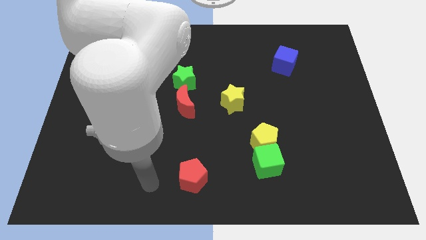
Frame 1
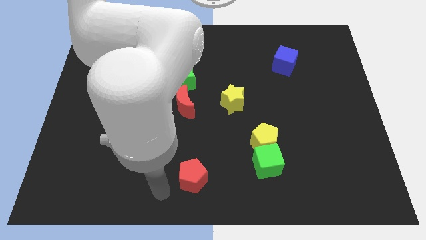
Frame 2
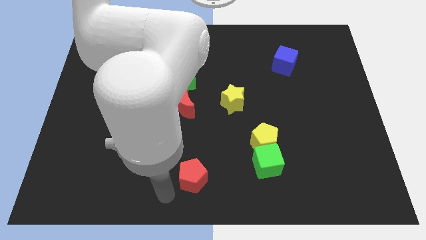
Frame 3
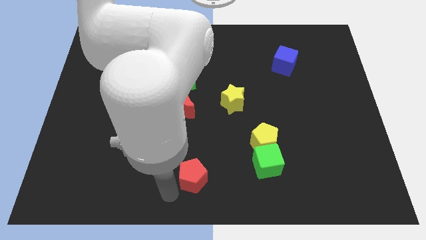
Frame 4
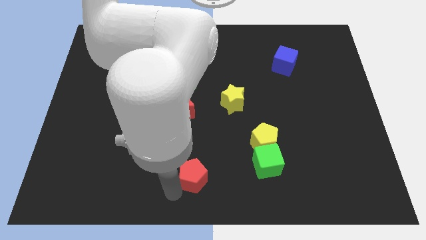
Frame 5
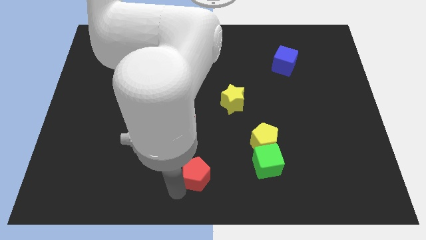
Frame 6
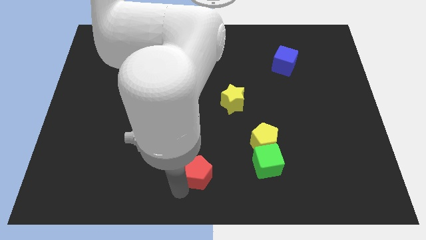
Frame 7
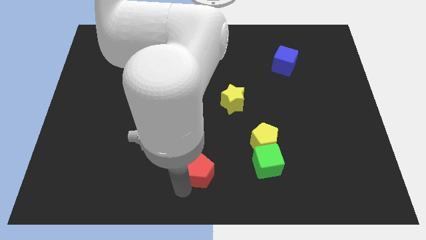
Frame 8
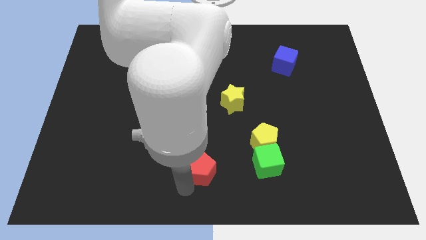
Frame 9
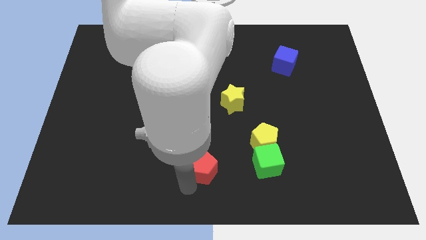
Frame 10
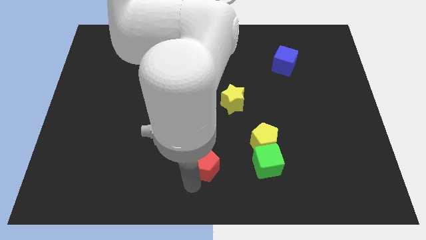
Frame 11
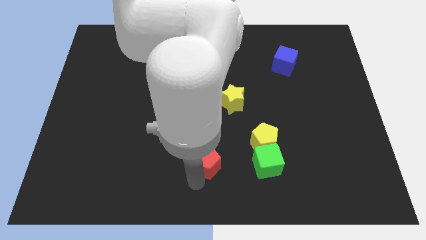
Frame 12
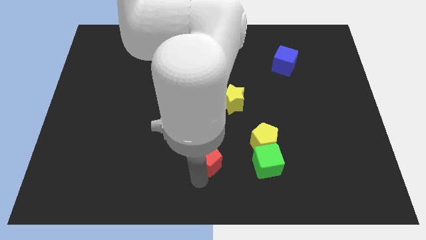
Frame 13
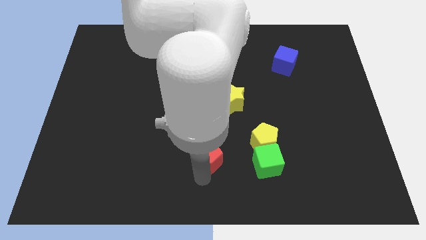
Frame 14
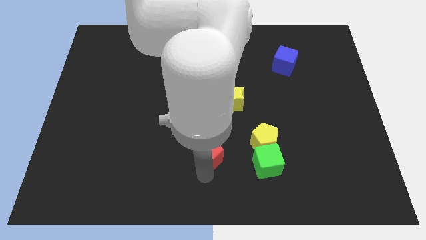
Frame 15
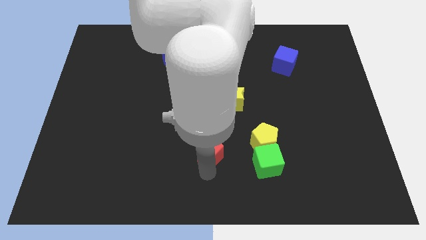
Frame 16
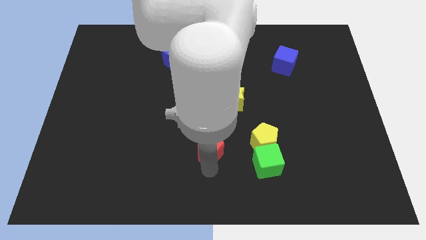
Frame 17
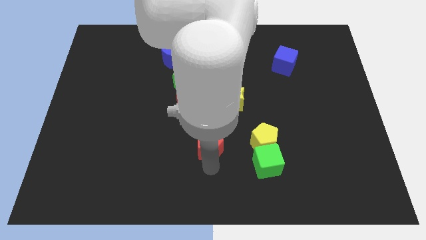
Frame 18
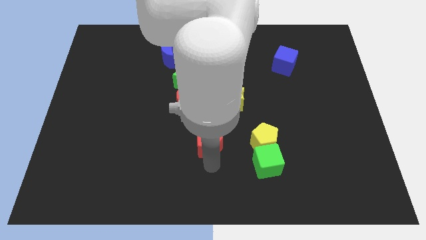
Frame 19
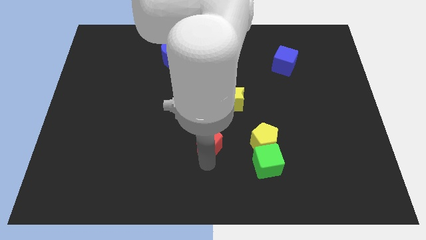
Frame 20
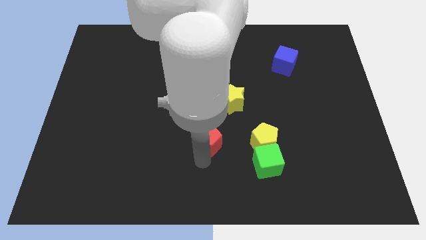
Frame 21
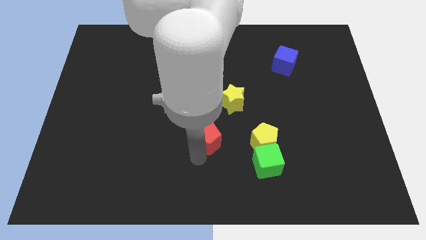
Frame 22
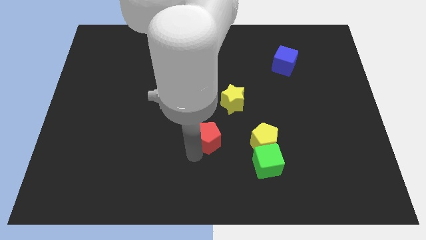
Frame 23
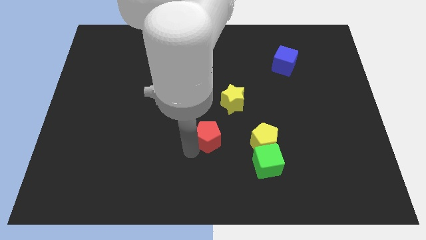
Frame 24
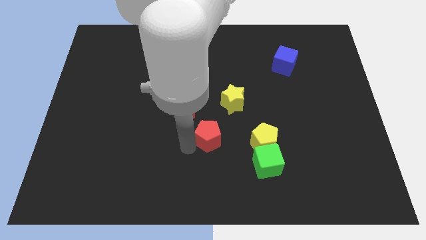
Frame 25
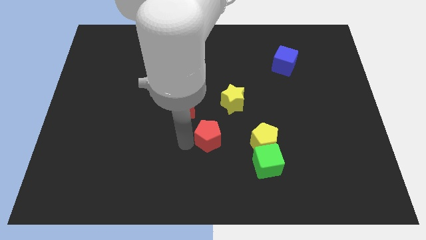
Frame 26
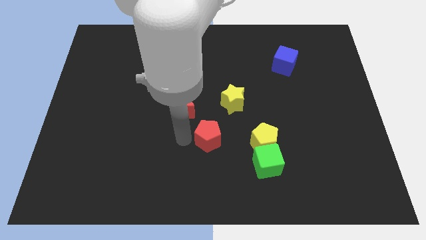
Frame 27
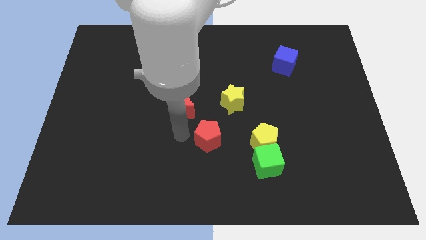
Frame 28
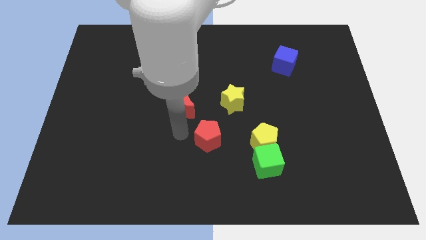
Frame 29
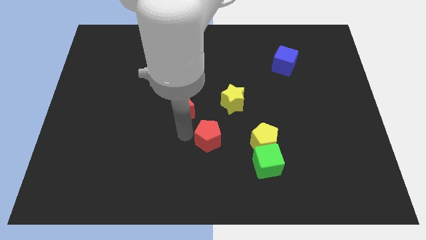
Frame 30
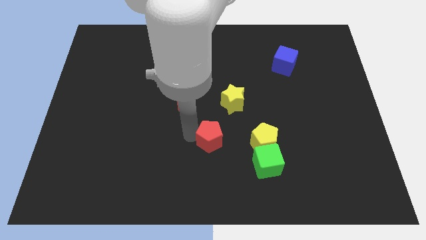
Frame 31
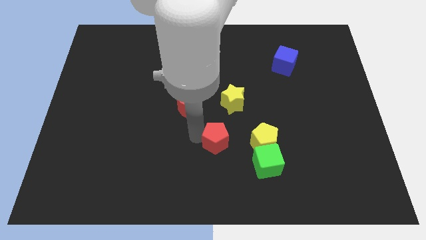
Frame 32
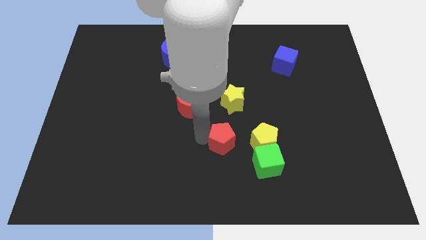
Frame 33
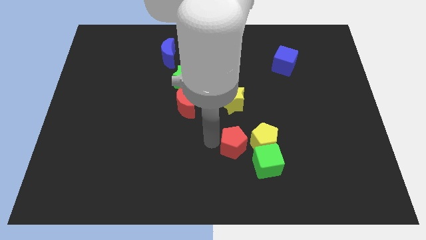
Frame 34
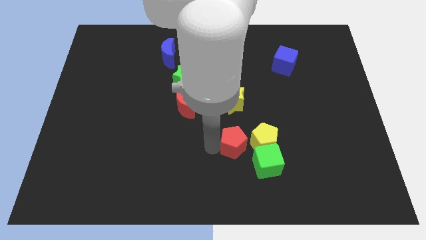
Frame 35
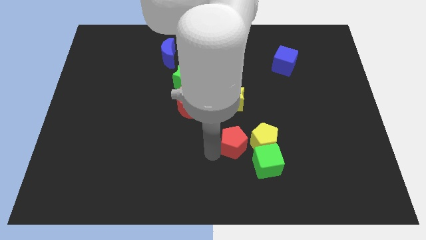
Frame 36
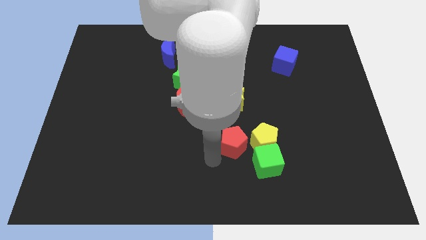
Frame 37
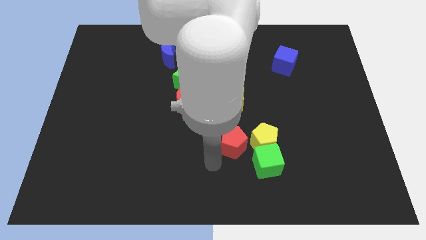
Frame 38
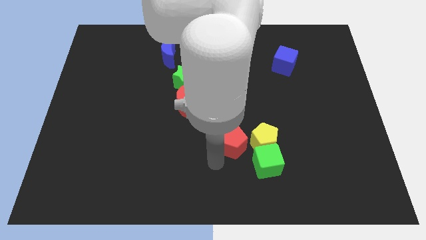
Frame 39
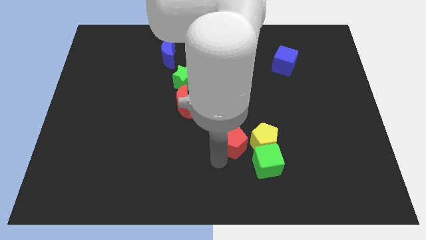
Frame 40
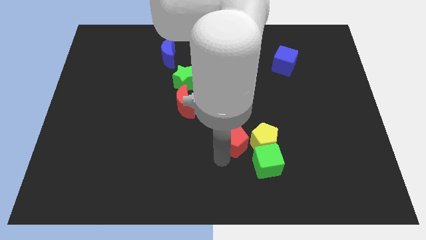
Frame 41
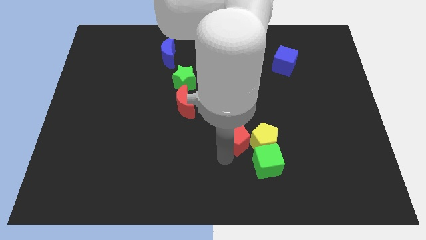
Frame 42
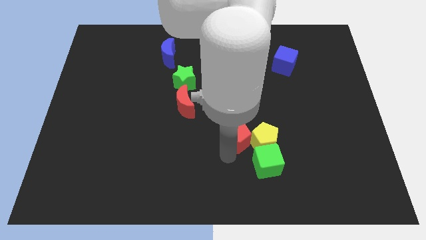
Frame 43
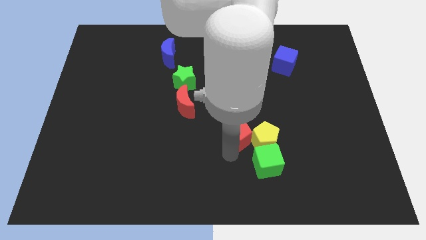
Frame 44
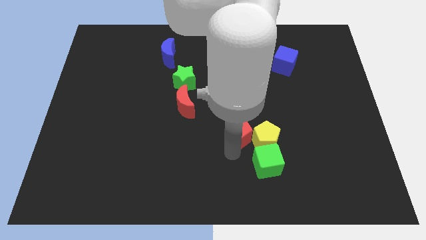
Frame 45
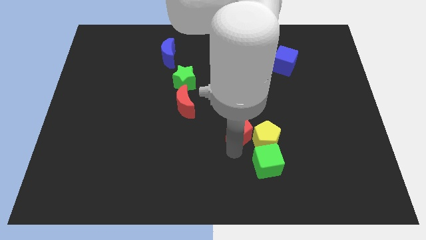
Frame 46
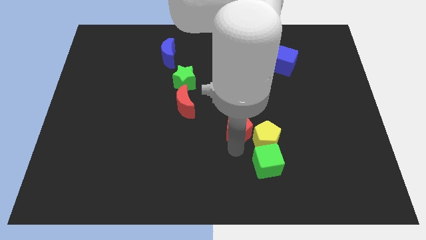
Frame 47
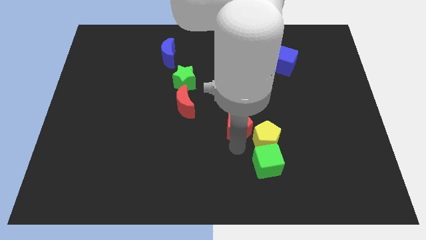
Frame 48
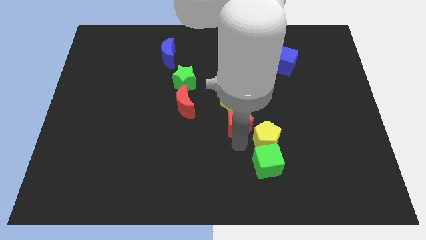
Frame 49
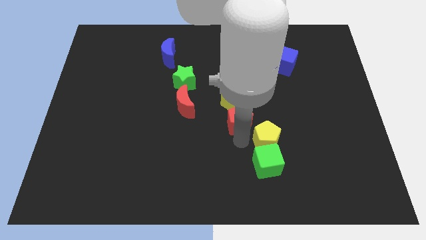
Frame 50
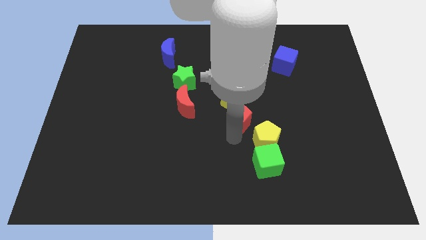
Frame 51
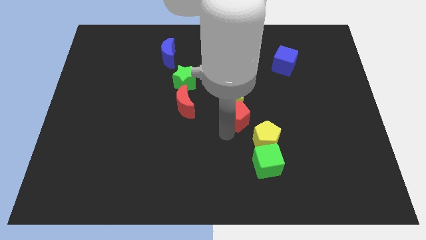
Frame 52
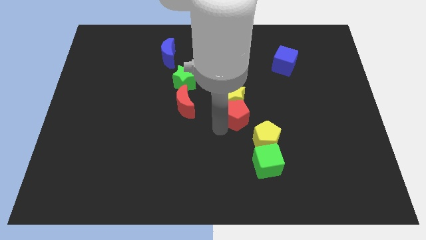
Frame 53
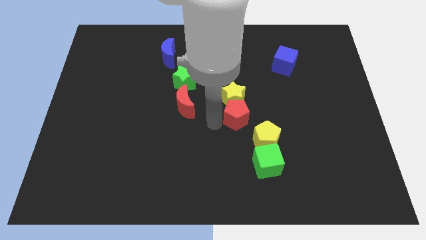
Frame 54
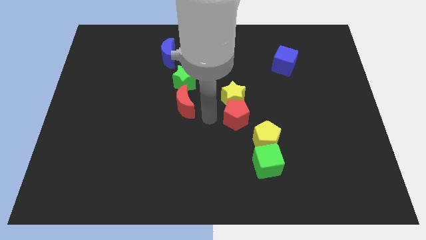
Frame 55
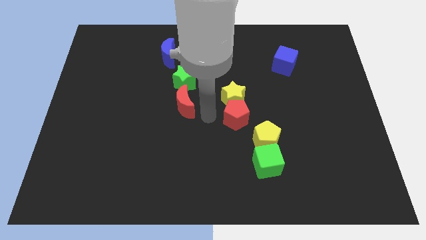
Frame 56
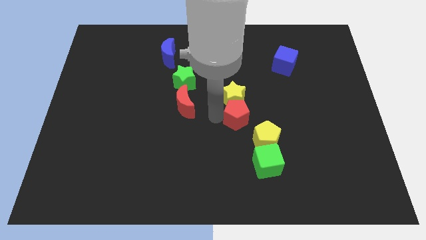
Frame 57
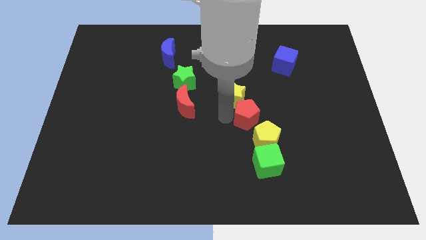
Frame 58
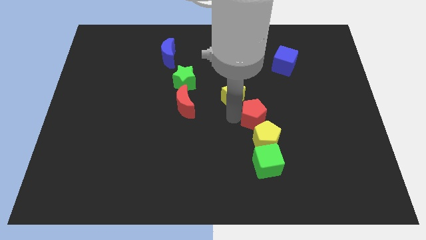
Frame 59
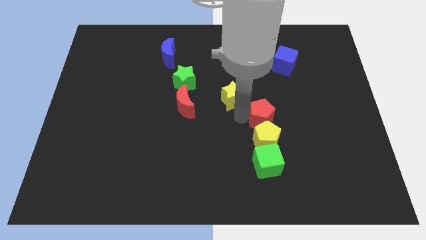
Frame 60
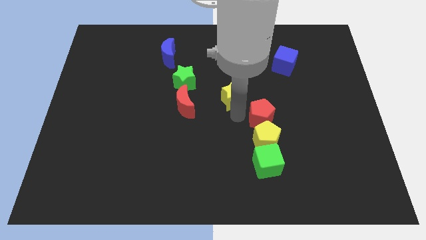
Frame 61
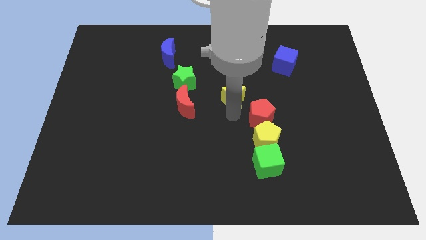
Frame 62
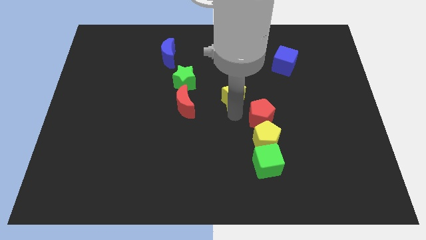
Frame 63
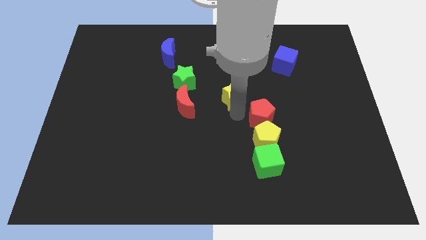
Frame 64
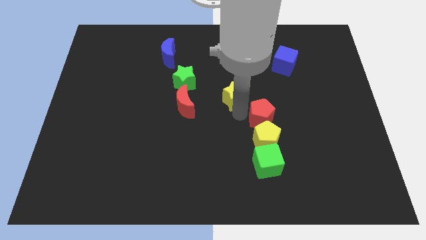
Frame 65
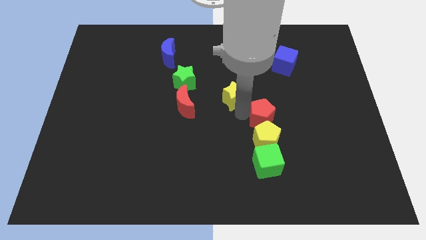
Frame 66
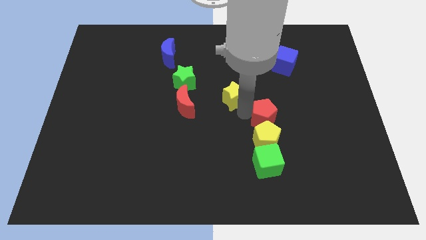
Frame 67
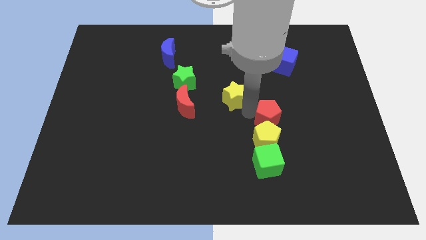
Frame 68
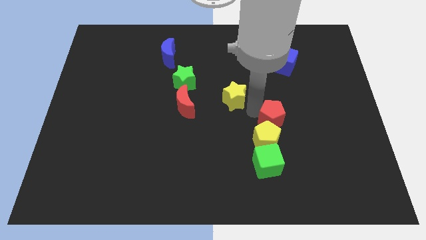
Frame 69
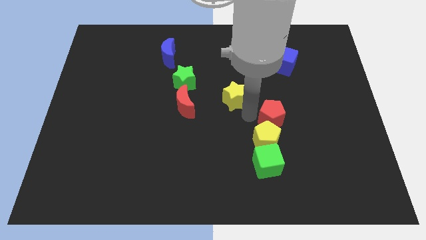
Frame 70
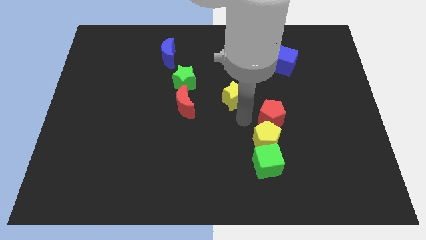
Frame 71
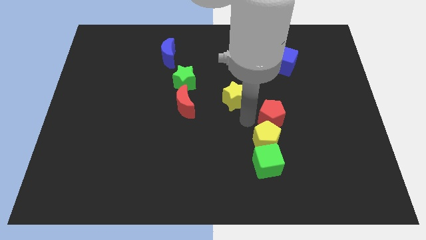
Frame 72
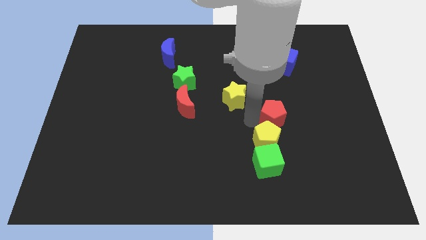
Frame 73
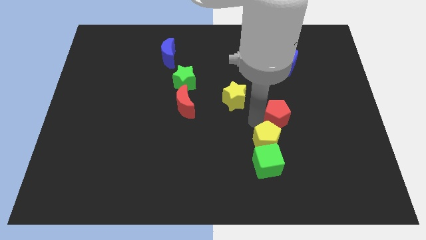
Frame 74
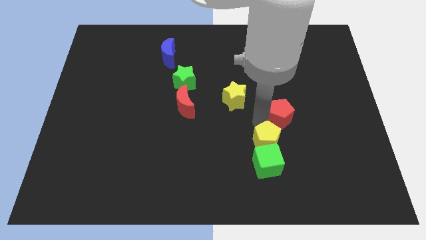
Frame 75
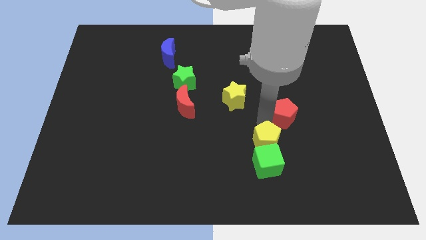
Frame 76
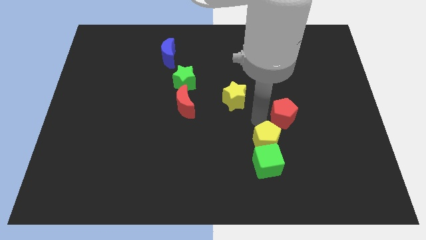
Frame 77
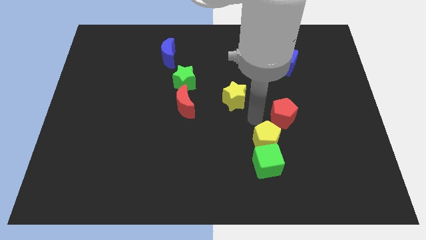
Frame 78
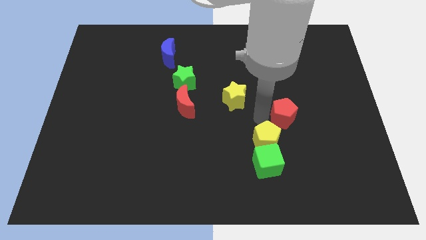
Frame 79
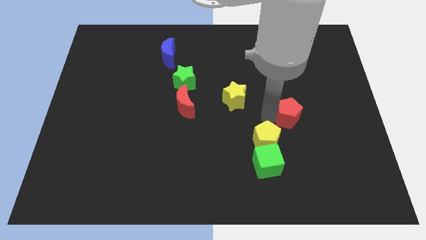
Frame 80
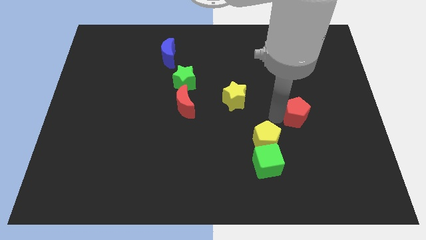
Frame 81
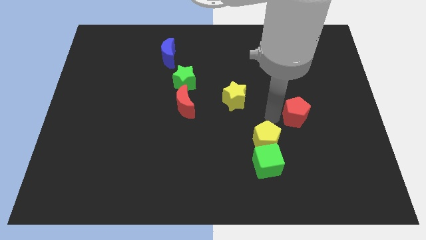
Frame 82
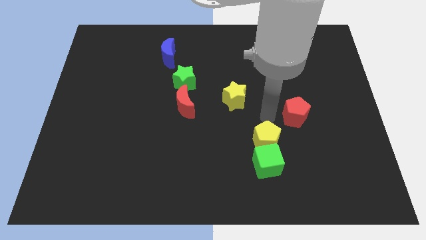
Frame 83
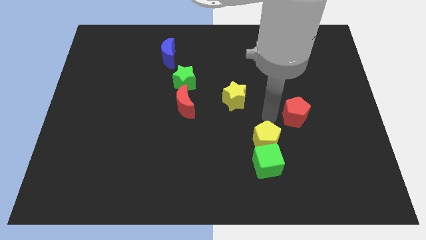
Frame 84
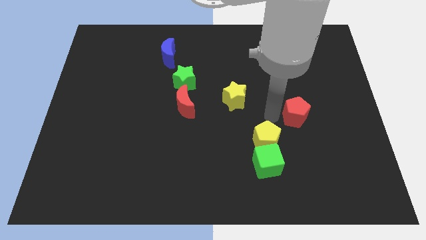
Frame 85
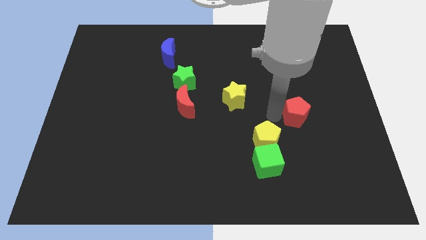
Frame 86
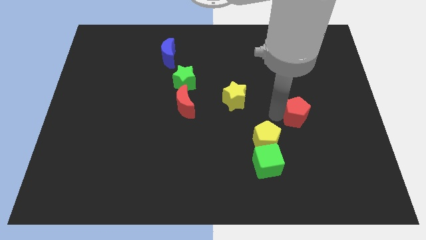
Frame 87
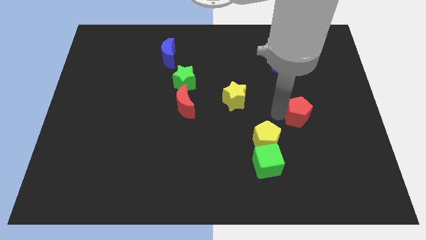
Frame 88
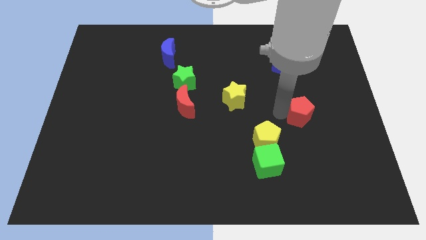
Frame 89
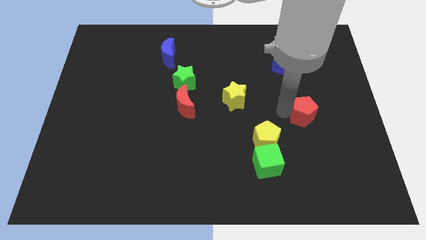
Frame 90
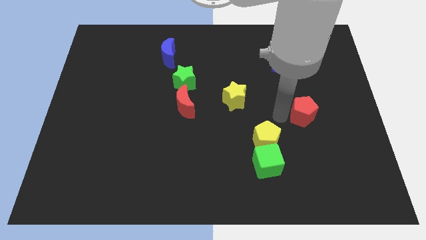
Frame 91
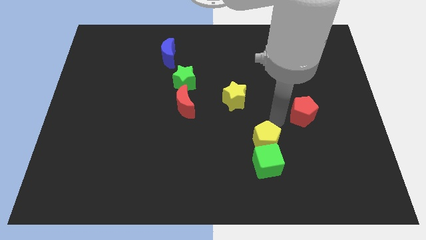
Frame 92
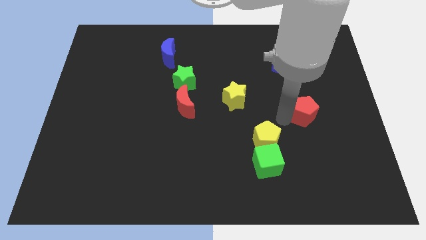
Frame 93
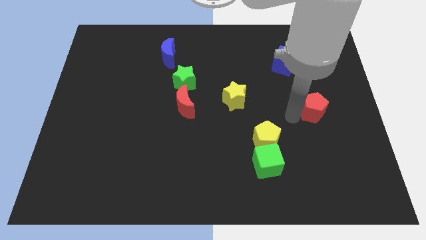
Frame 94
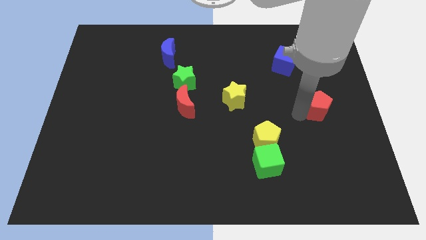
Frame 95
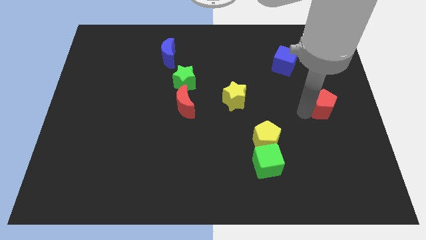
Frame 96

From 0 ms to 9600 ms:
push the red pentagon to the right side
